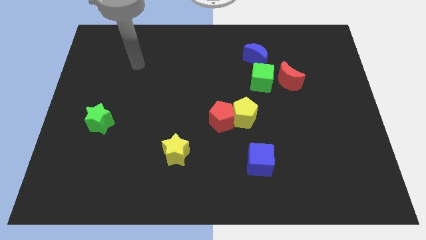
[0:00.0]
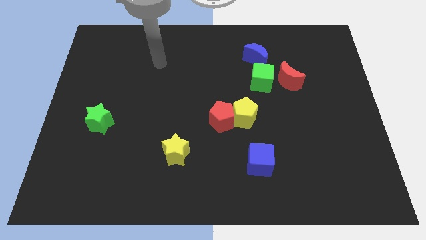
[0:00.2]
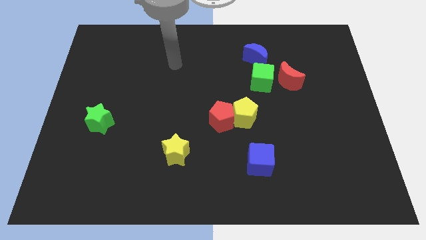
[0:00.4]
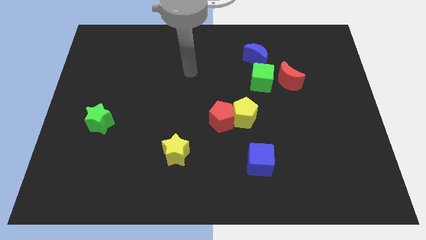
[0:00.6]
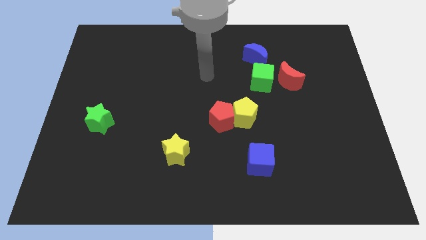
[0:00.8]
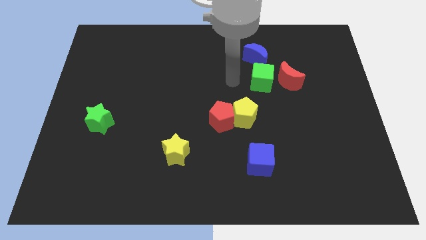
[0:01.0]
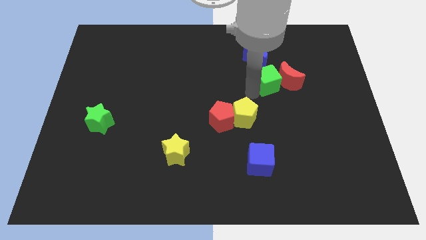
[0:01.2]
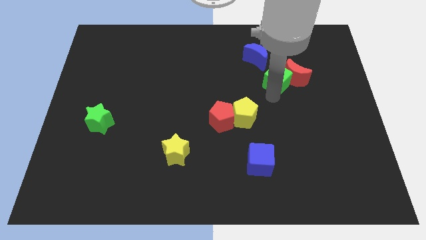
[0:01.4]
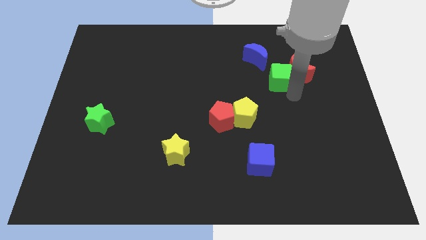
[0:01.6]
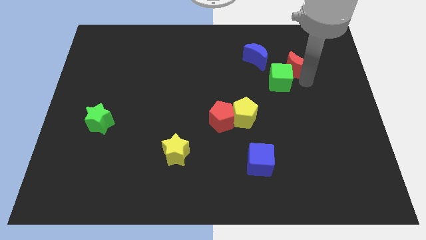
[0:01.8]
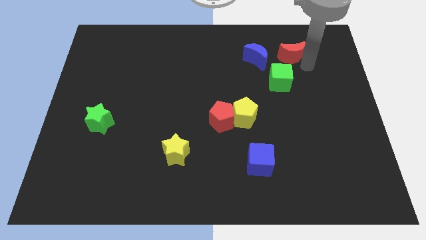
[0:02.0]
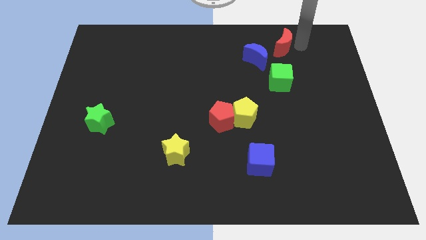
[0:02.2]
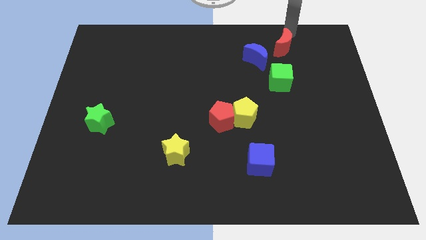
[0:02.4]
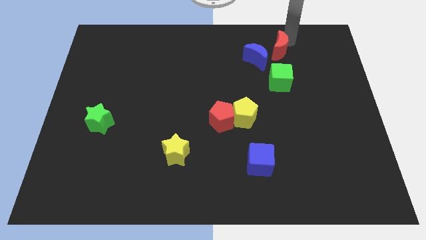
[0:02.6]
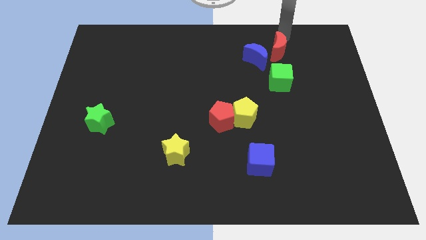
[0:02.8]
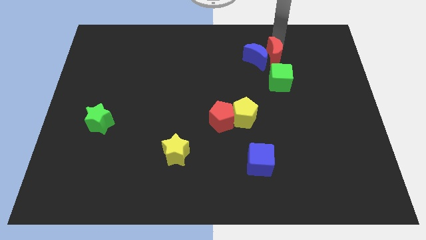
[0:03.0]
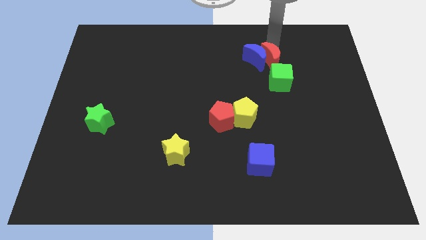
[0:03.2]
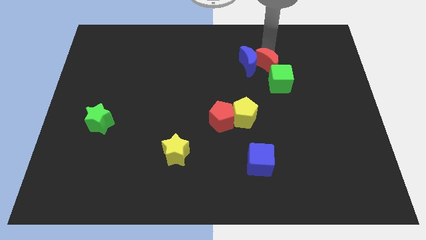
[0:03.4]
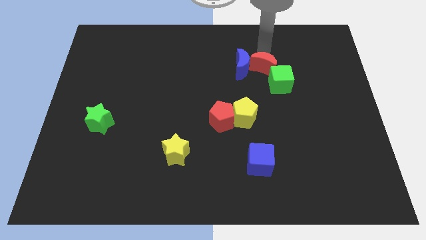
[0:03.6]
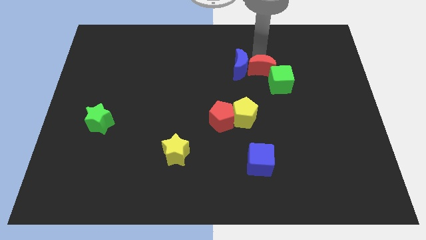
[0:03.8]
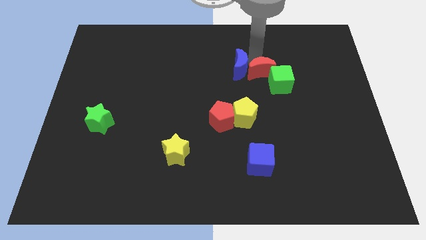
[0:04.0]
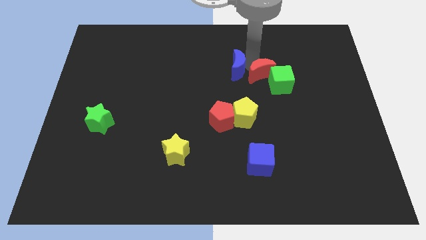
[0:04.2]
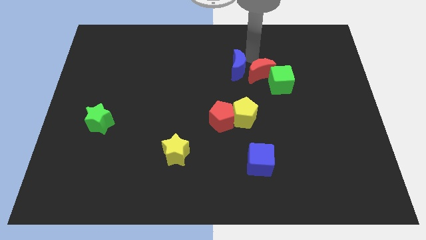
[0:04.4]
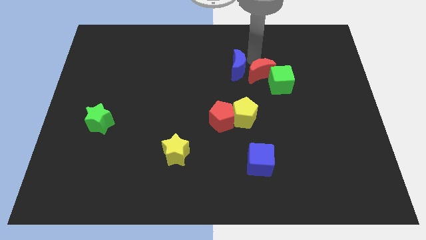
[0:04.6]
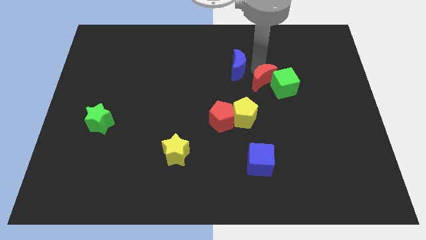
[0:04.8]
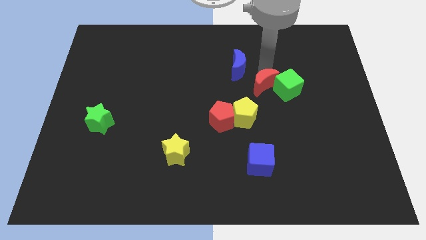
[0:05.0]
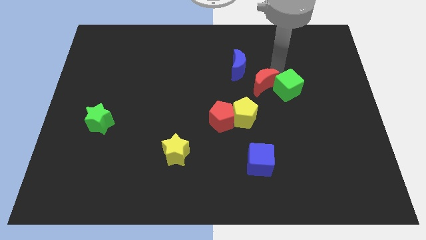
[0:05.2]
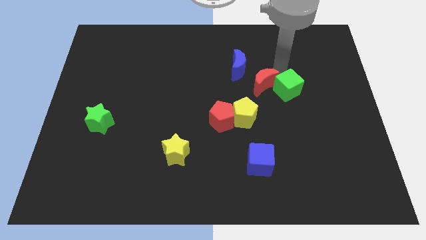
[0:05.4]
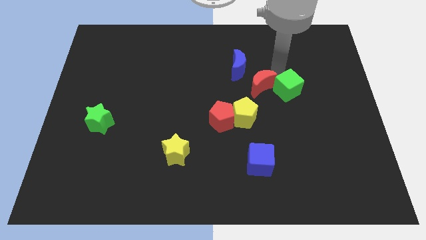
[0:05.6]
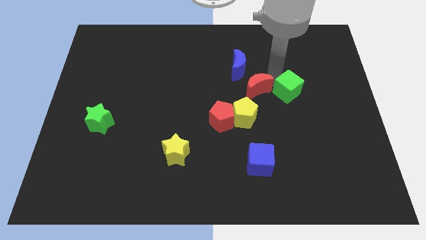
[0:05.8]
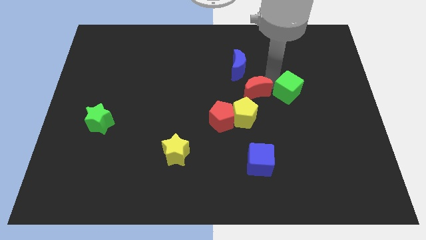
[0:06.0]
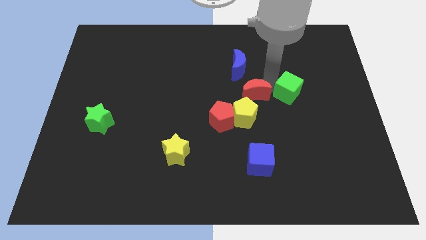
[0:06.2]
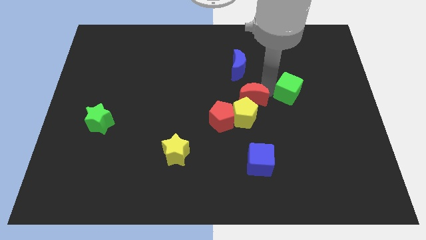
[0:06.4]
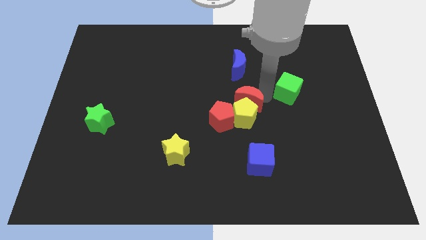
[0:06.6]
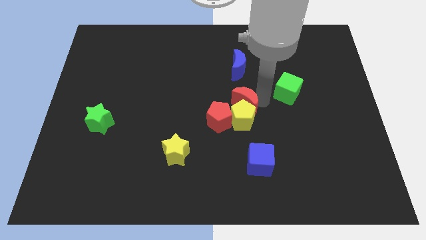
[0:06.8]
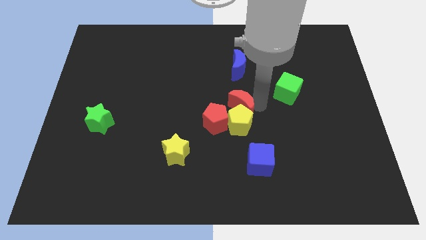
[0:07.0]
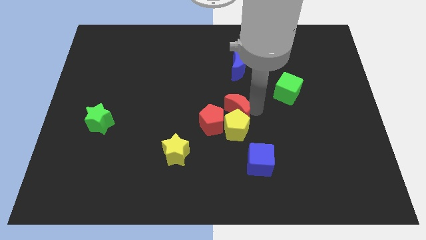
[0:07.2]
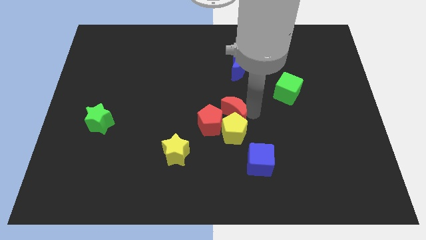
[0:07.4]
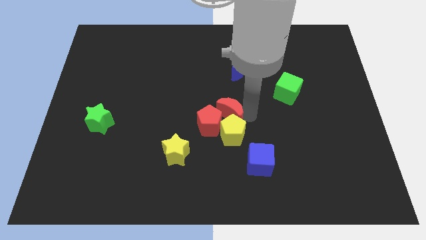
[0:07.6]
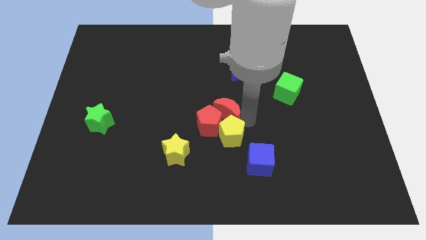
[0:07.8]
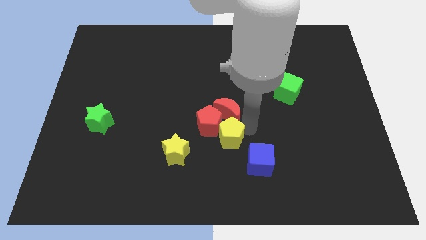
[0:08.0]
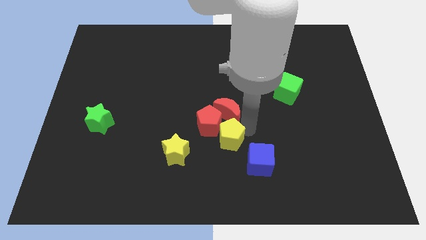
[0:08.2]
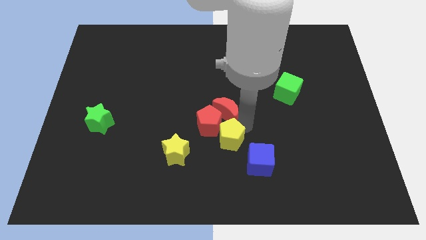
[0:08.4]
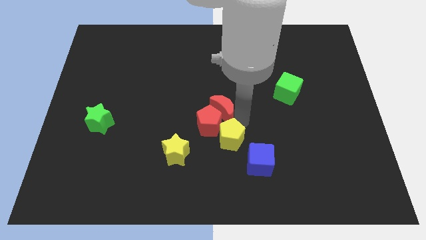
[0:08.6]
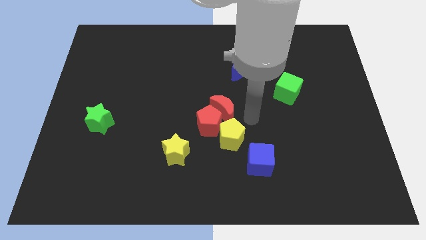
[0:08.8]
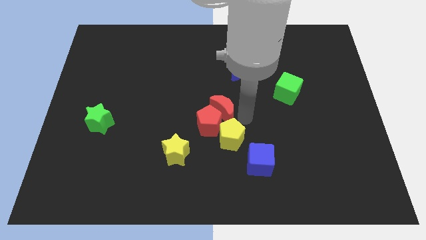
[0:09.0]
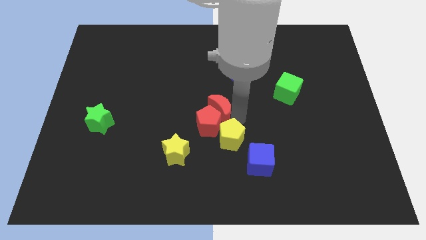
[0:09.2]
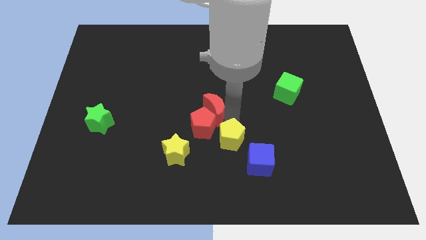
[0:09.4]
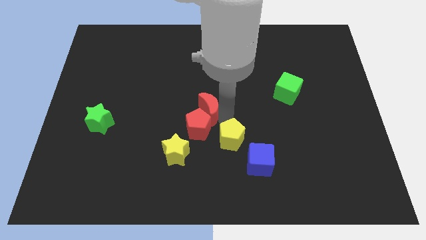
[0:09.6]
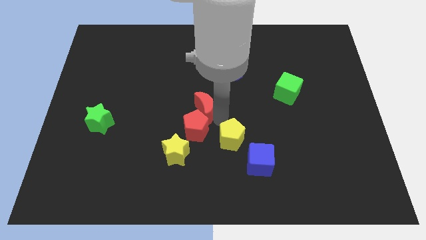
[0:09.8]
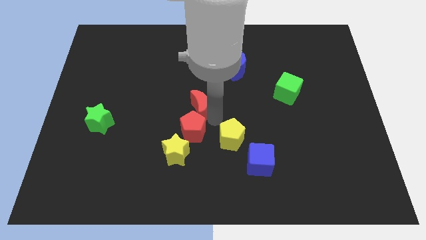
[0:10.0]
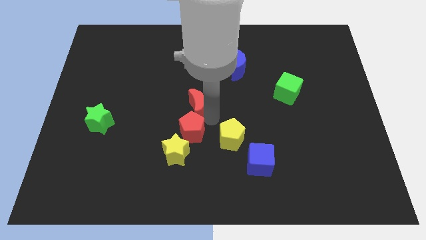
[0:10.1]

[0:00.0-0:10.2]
push the red moon above the yellow star

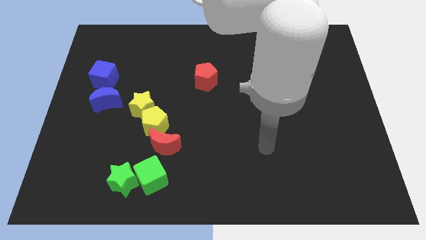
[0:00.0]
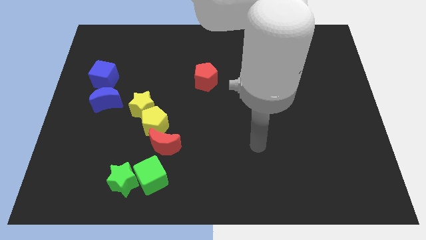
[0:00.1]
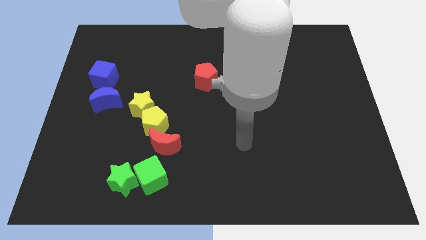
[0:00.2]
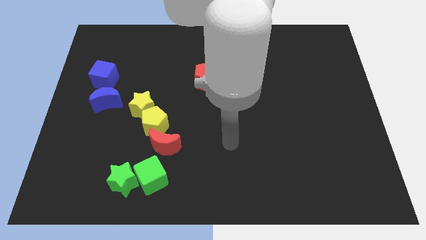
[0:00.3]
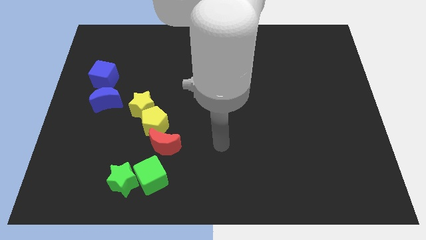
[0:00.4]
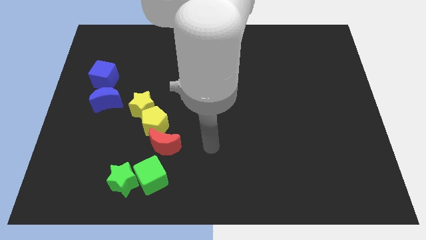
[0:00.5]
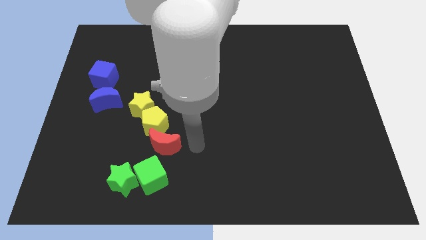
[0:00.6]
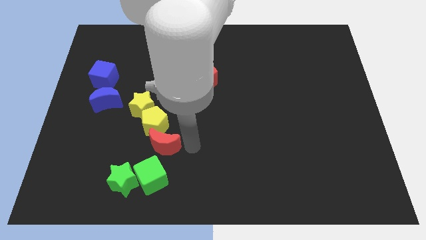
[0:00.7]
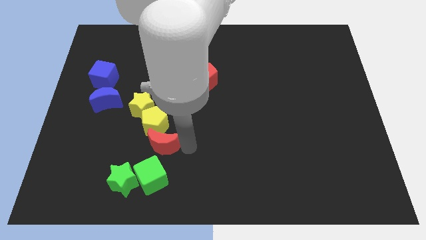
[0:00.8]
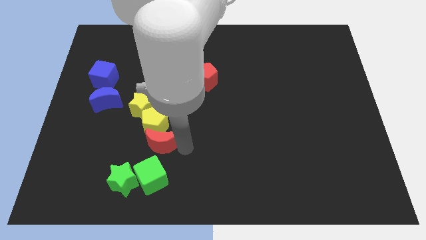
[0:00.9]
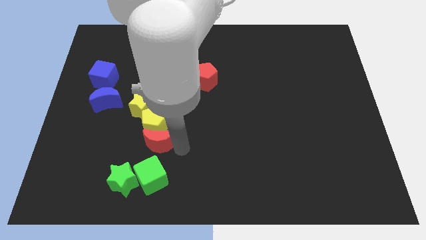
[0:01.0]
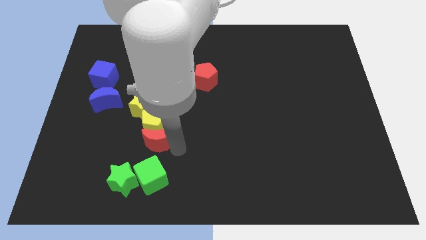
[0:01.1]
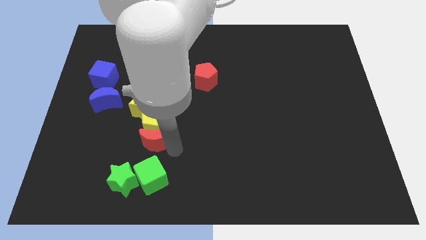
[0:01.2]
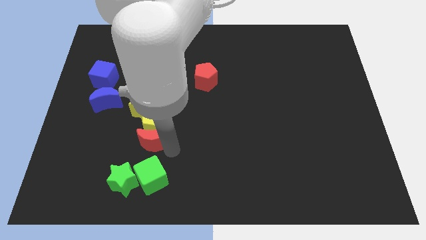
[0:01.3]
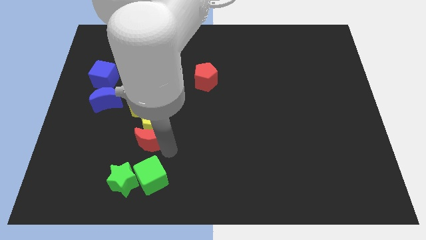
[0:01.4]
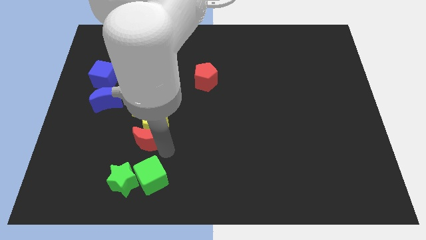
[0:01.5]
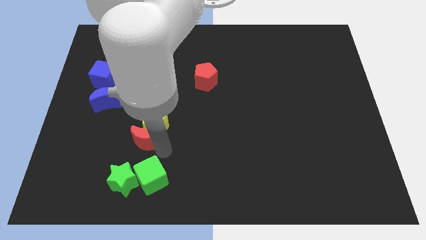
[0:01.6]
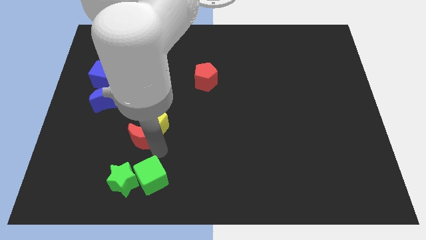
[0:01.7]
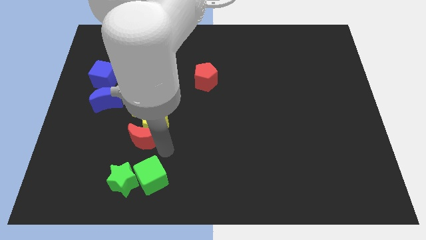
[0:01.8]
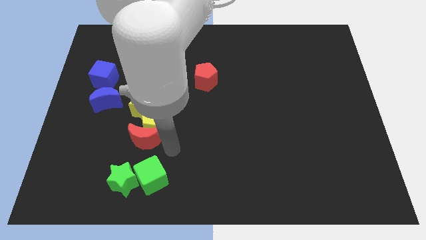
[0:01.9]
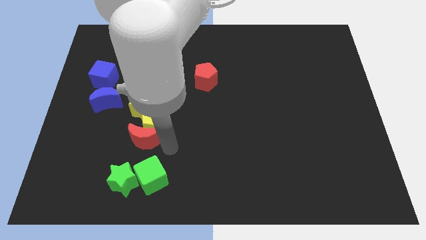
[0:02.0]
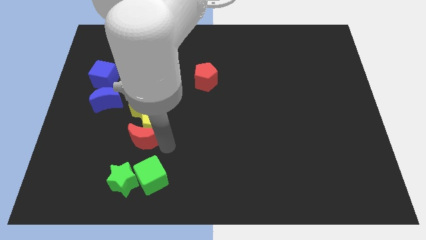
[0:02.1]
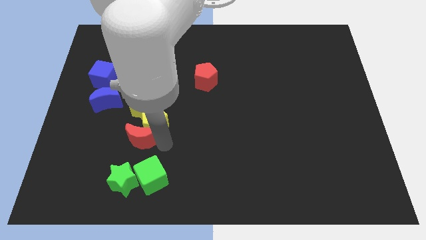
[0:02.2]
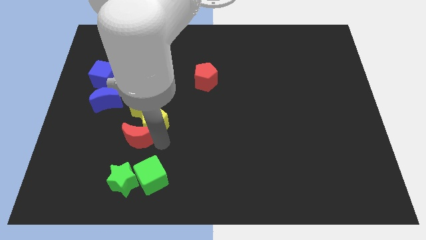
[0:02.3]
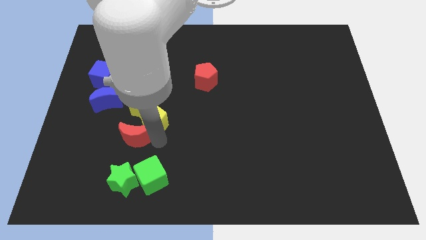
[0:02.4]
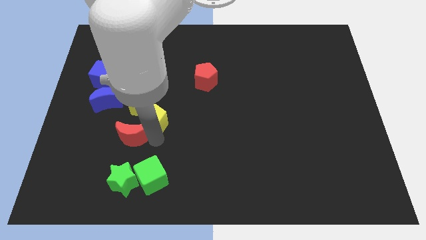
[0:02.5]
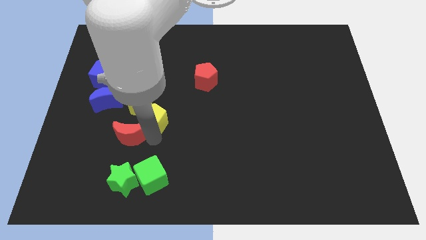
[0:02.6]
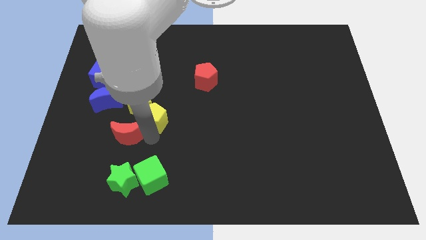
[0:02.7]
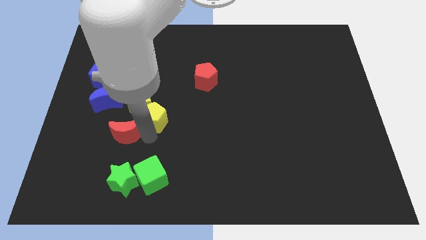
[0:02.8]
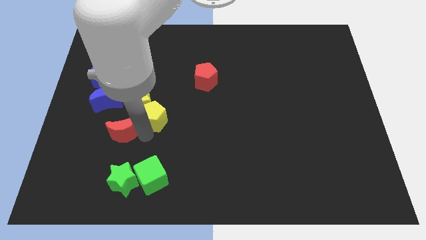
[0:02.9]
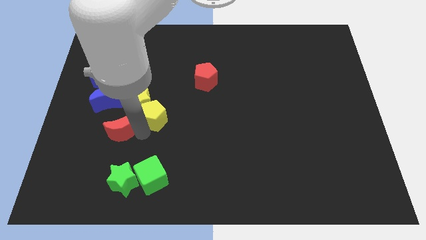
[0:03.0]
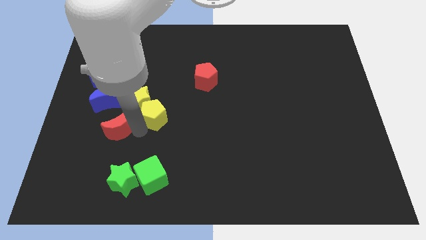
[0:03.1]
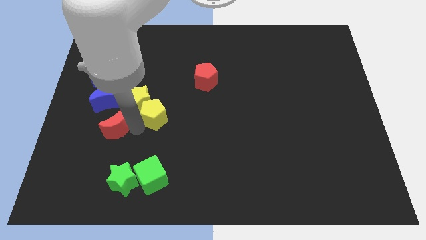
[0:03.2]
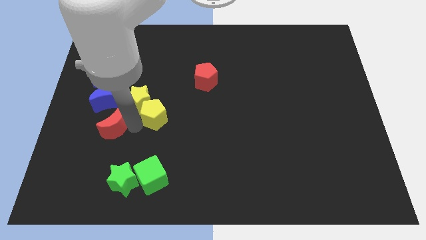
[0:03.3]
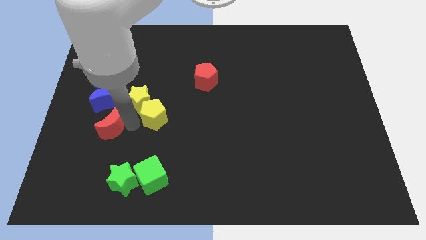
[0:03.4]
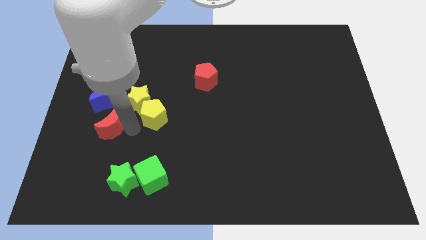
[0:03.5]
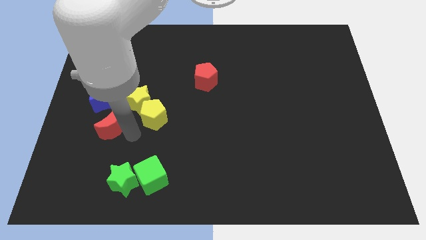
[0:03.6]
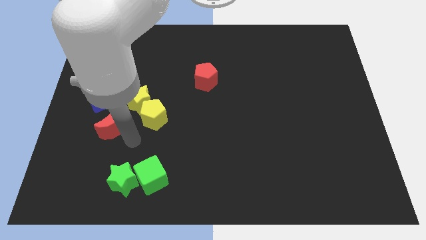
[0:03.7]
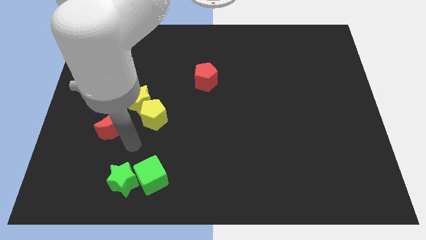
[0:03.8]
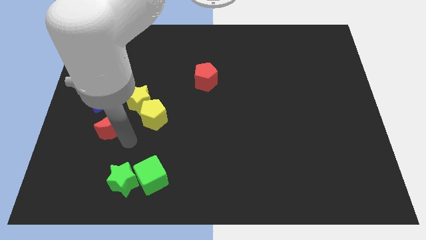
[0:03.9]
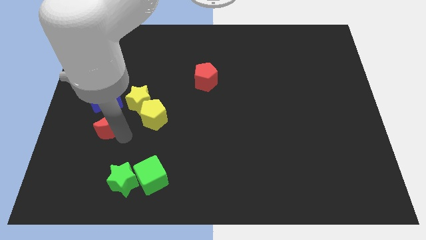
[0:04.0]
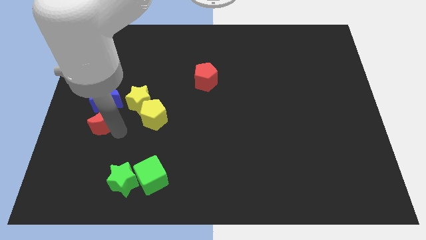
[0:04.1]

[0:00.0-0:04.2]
move the red moon to the bottom side of the blue cube
